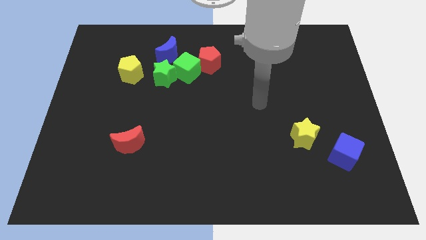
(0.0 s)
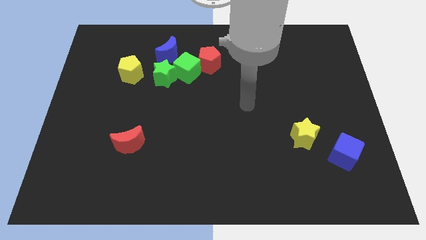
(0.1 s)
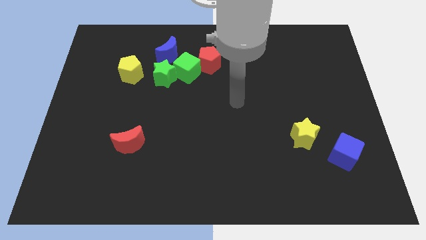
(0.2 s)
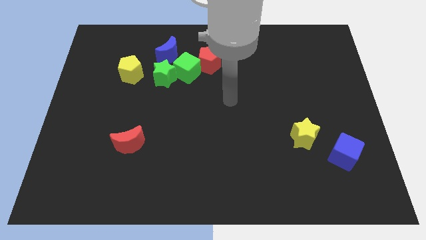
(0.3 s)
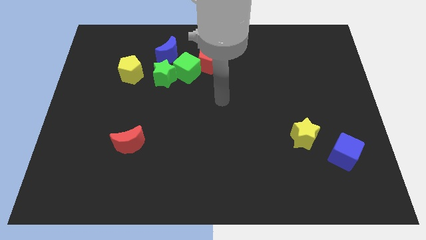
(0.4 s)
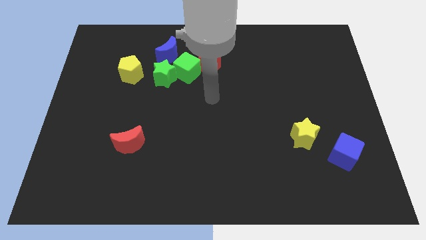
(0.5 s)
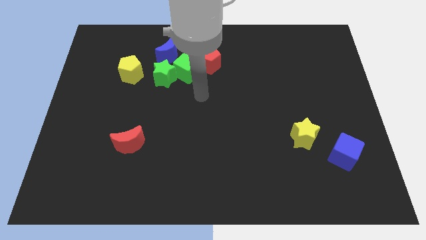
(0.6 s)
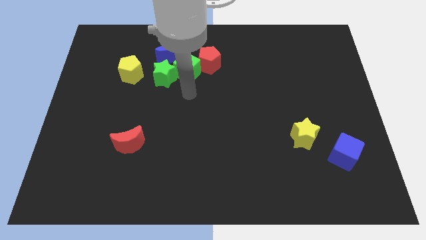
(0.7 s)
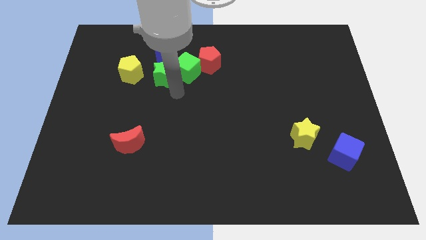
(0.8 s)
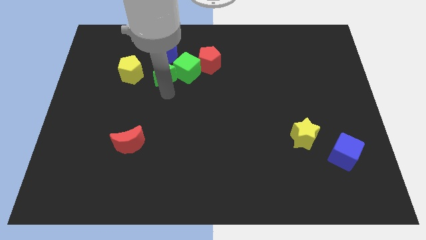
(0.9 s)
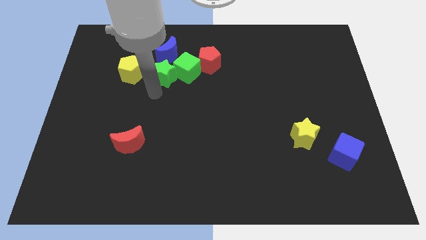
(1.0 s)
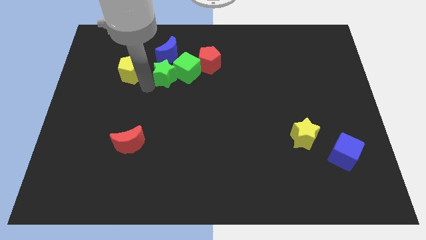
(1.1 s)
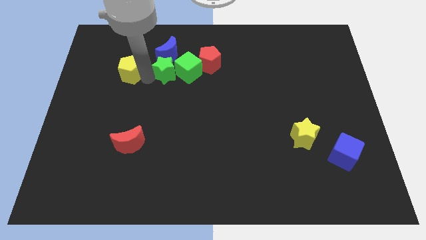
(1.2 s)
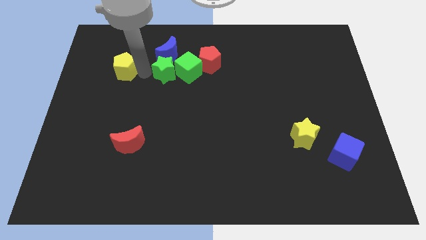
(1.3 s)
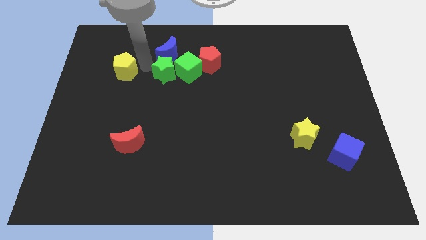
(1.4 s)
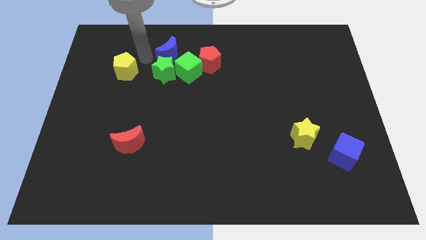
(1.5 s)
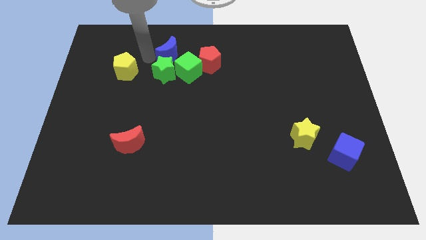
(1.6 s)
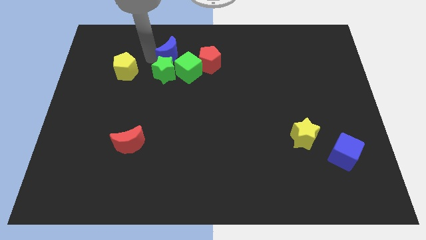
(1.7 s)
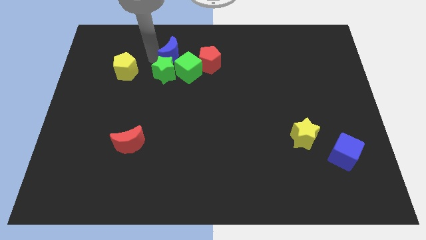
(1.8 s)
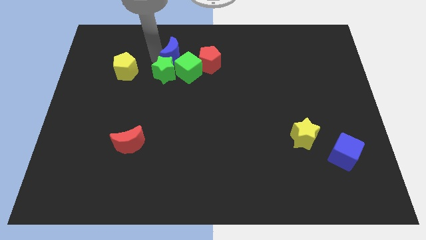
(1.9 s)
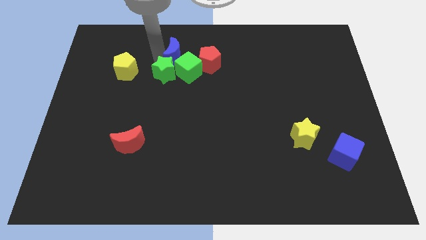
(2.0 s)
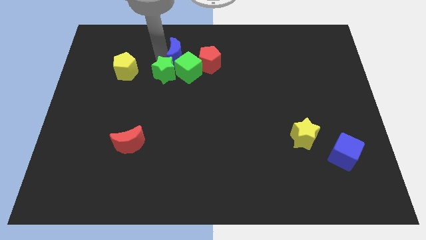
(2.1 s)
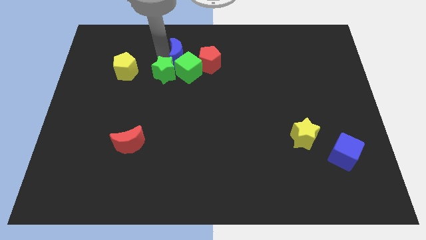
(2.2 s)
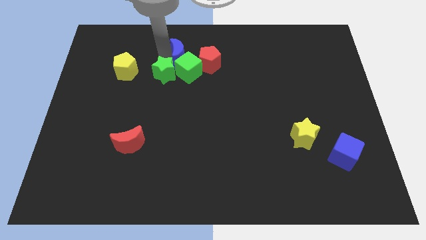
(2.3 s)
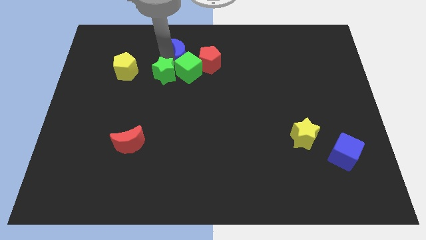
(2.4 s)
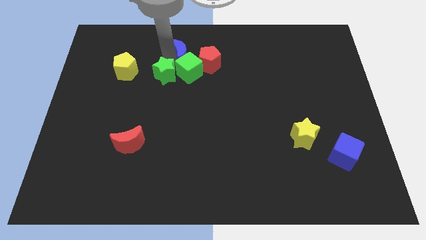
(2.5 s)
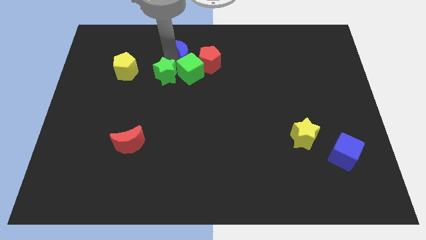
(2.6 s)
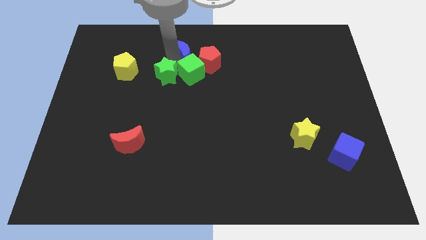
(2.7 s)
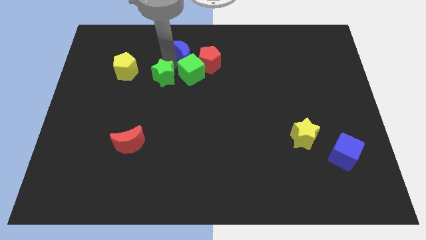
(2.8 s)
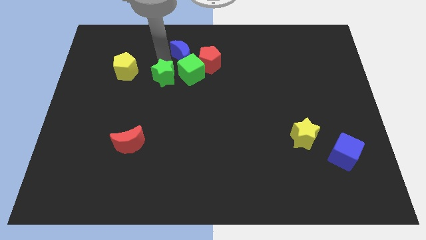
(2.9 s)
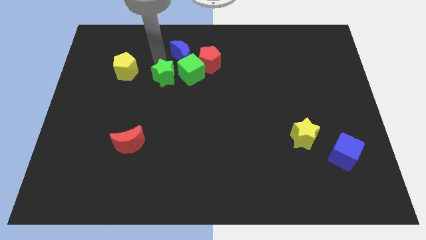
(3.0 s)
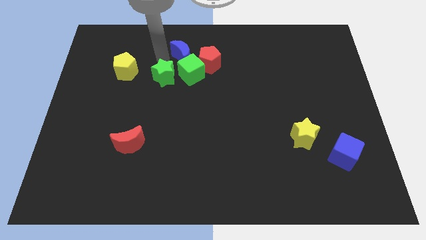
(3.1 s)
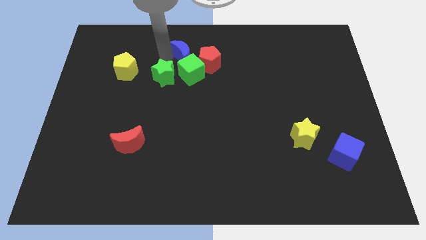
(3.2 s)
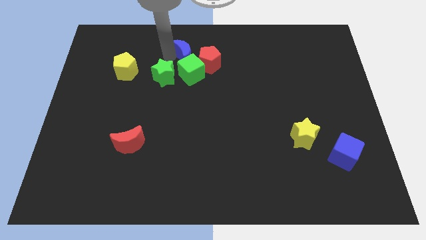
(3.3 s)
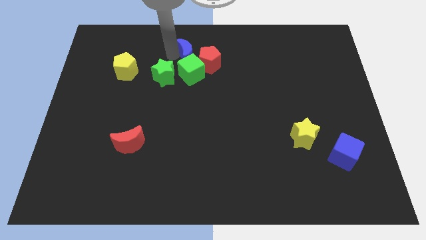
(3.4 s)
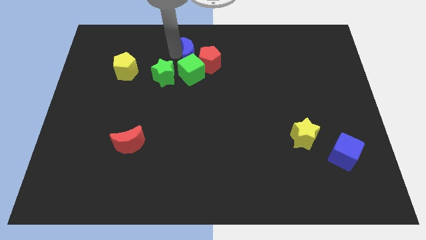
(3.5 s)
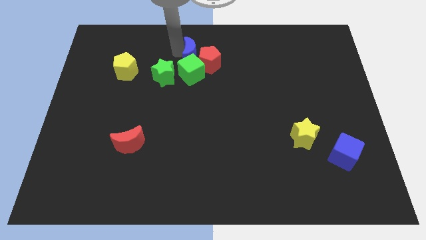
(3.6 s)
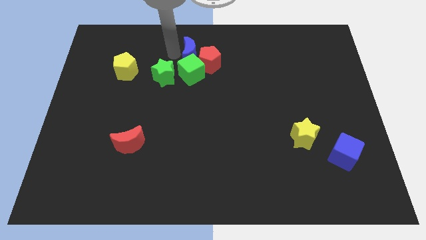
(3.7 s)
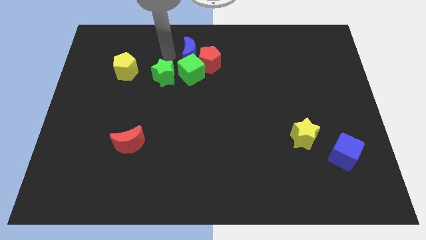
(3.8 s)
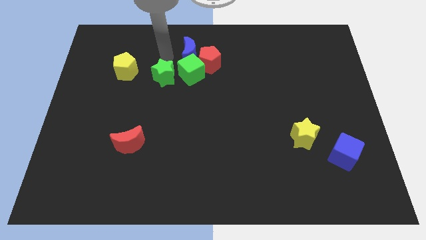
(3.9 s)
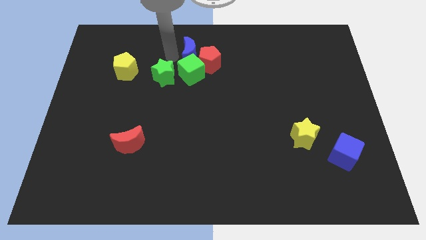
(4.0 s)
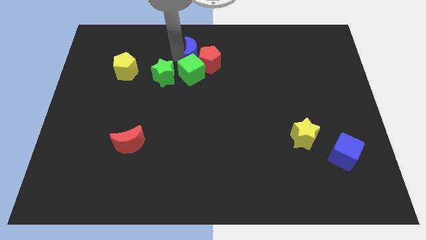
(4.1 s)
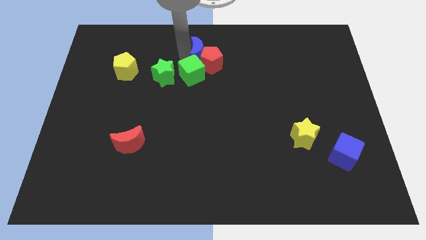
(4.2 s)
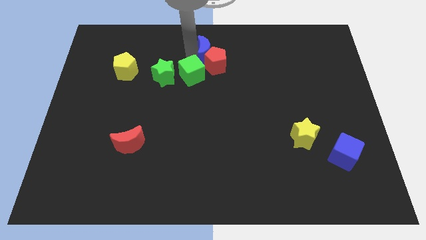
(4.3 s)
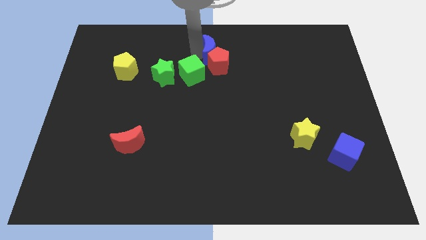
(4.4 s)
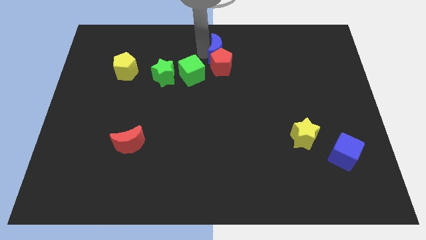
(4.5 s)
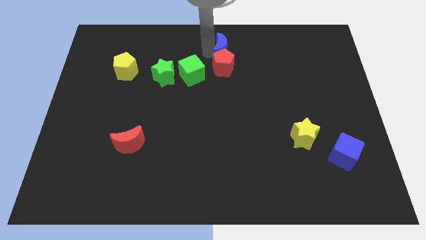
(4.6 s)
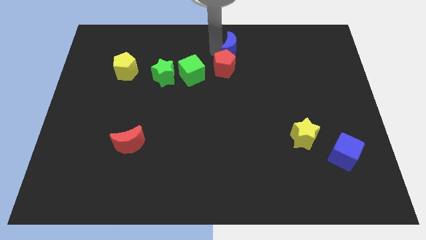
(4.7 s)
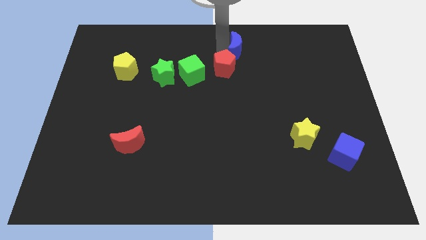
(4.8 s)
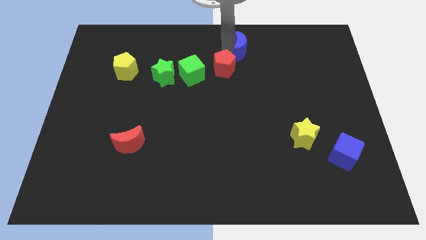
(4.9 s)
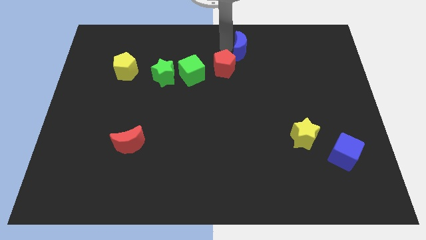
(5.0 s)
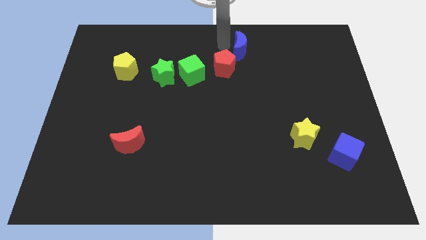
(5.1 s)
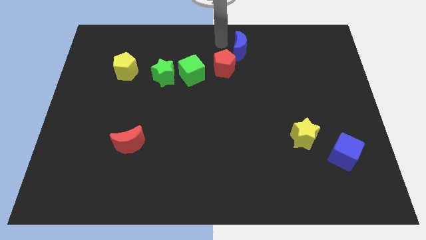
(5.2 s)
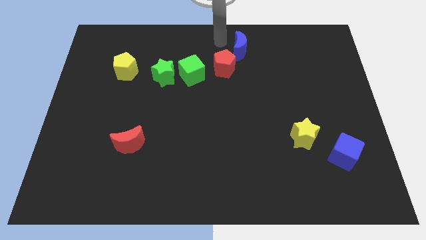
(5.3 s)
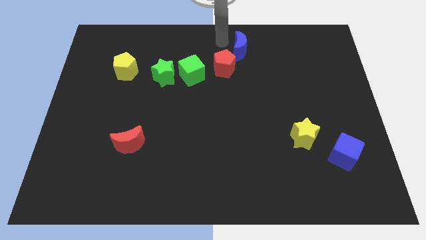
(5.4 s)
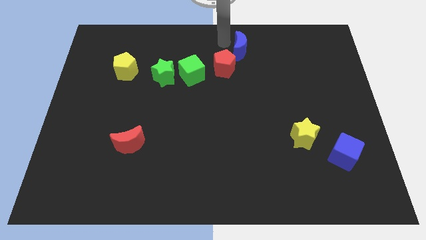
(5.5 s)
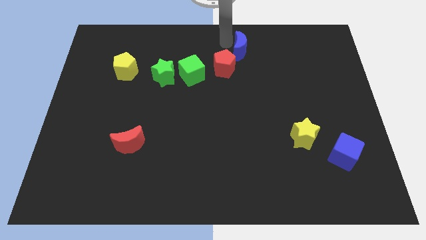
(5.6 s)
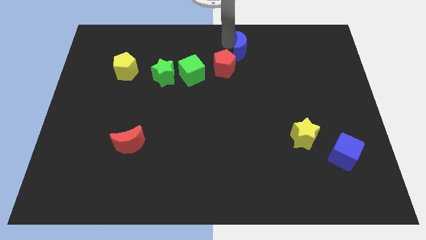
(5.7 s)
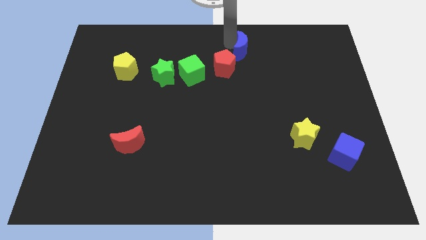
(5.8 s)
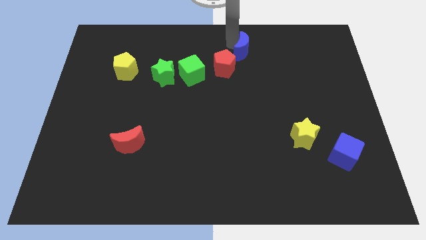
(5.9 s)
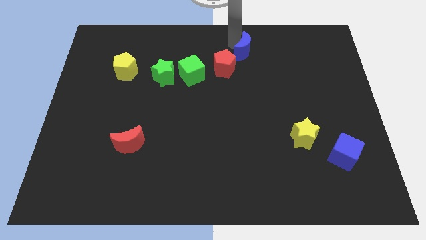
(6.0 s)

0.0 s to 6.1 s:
move the blue moon right

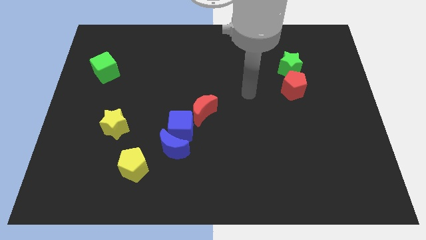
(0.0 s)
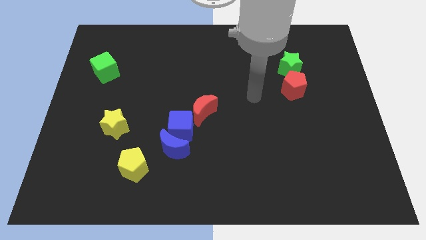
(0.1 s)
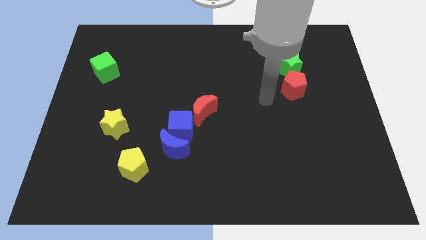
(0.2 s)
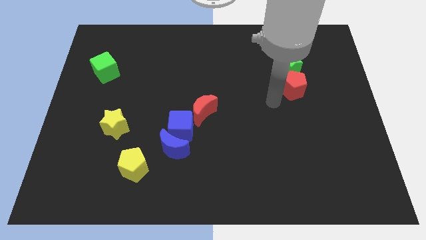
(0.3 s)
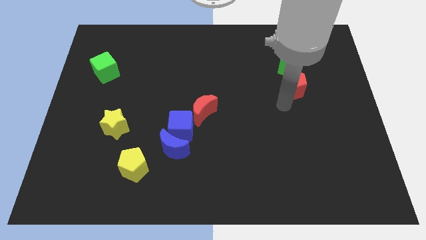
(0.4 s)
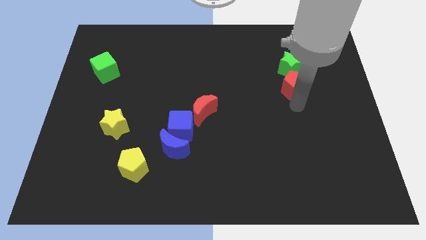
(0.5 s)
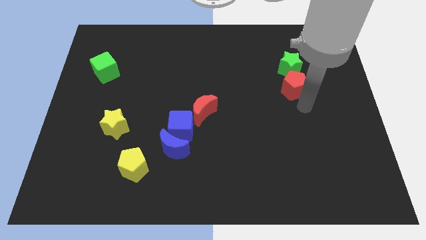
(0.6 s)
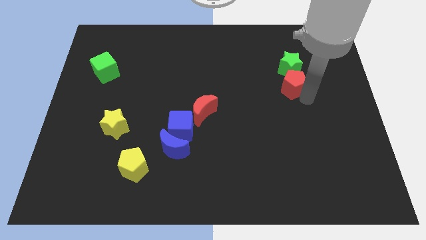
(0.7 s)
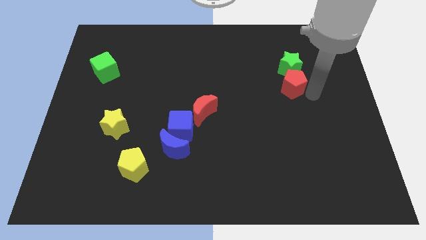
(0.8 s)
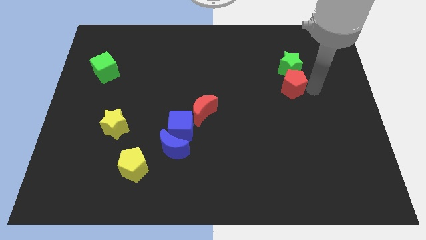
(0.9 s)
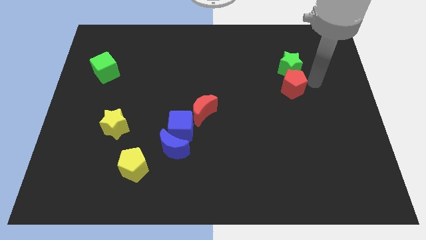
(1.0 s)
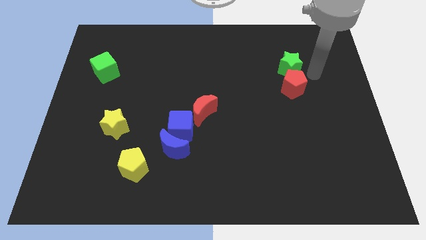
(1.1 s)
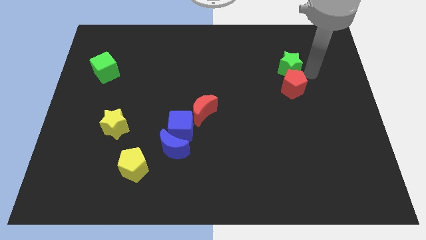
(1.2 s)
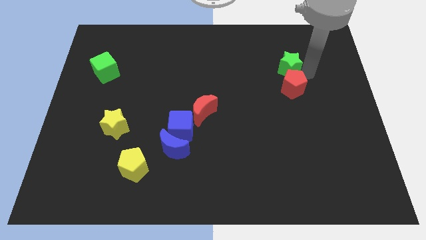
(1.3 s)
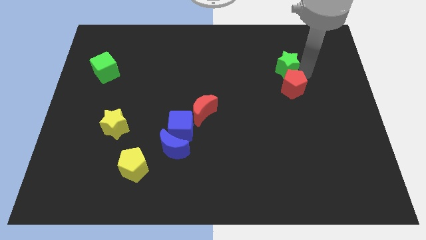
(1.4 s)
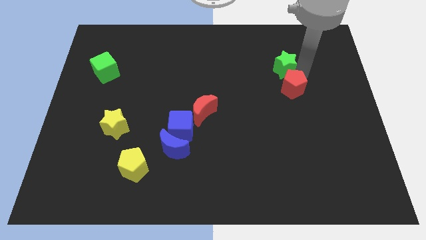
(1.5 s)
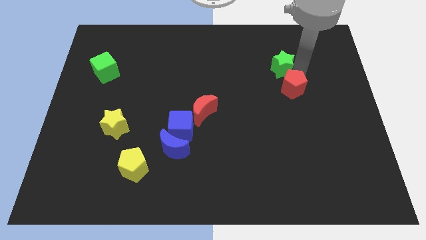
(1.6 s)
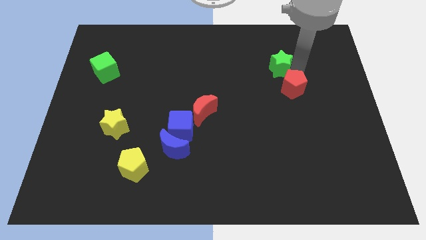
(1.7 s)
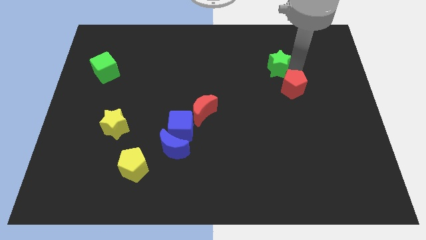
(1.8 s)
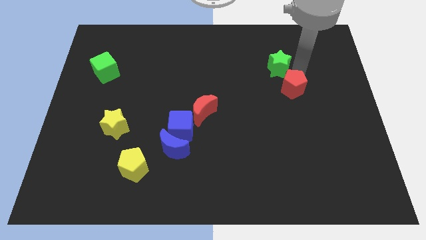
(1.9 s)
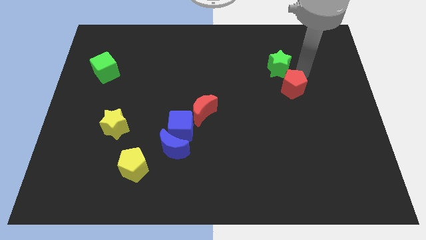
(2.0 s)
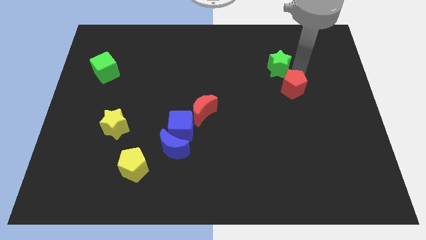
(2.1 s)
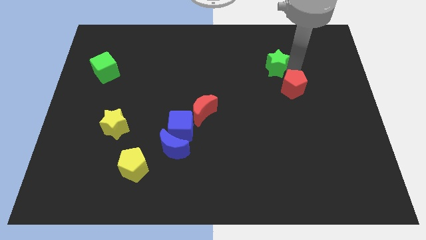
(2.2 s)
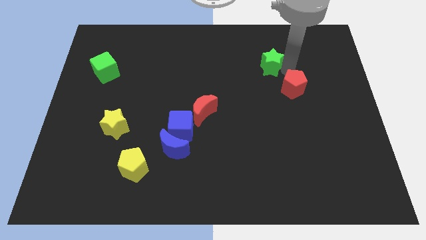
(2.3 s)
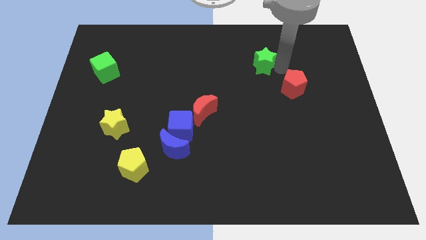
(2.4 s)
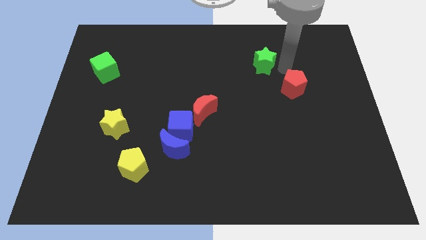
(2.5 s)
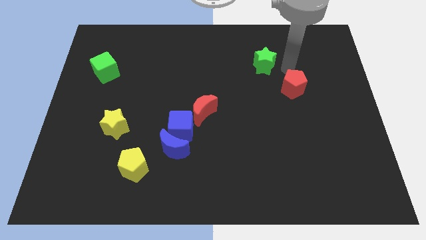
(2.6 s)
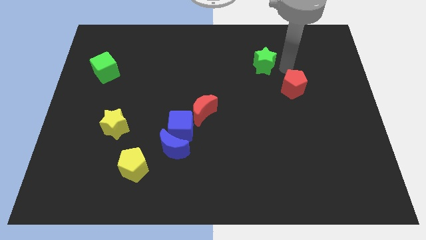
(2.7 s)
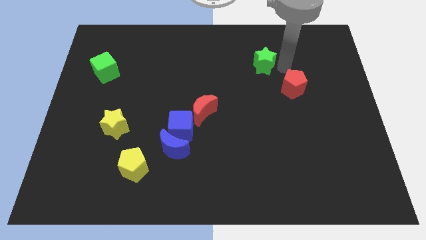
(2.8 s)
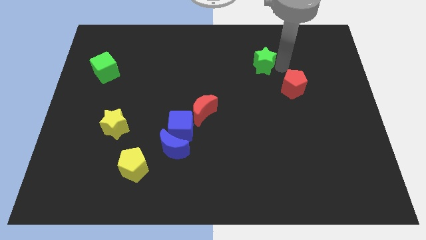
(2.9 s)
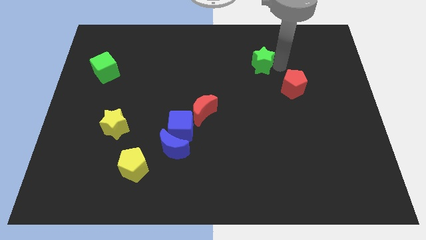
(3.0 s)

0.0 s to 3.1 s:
slightly slide the green star to the left
